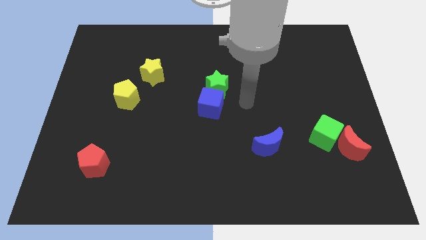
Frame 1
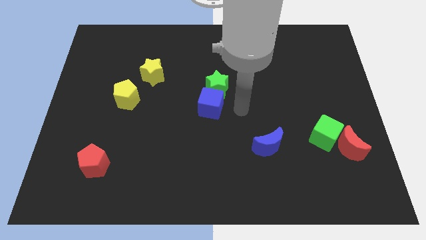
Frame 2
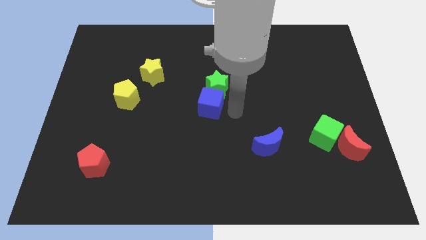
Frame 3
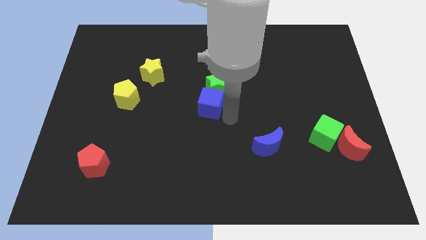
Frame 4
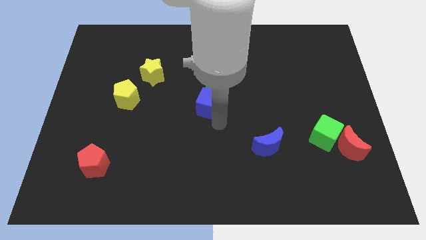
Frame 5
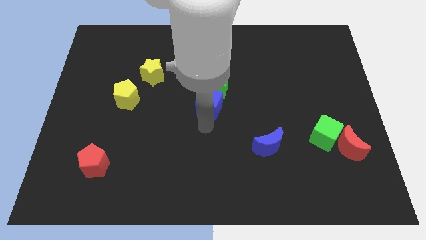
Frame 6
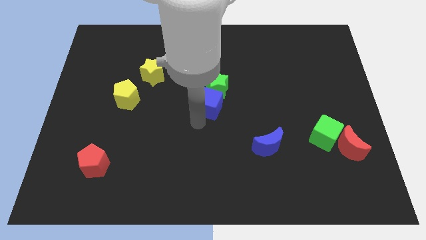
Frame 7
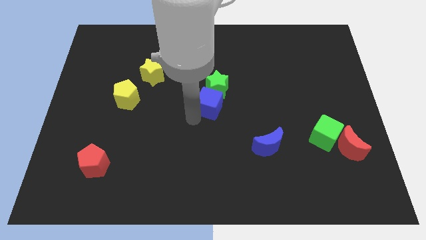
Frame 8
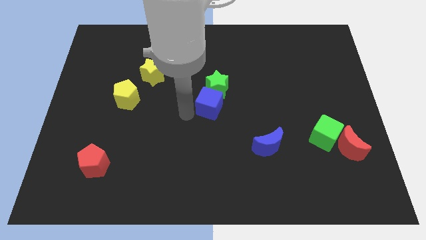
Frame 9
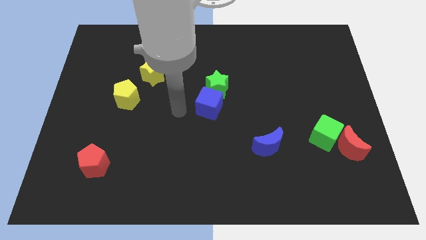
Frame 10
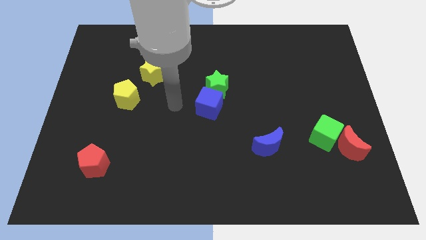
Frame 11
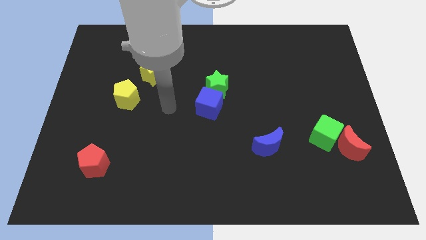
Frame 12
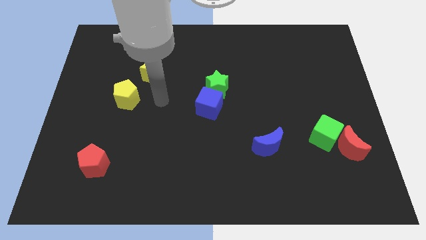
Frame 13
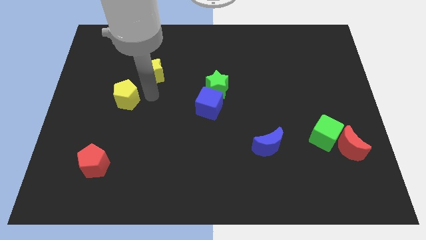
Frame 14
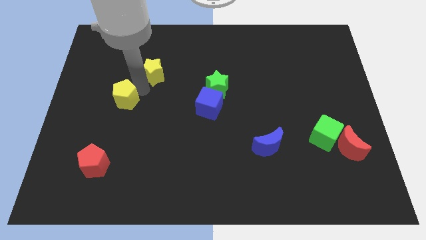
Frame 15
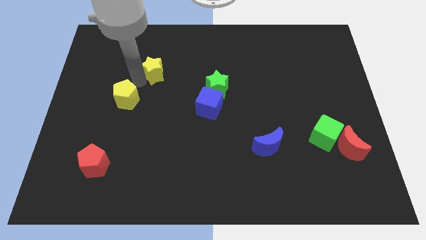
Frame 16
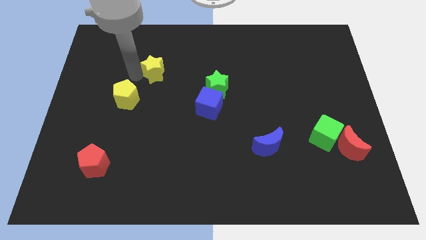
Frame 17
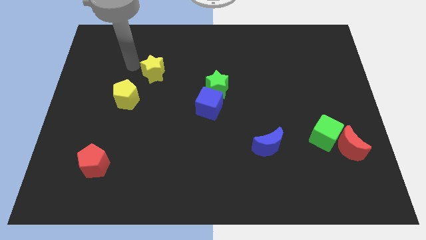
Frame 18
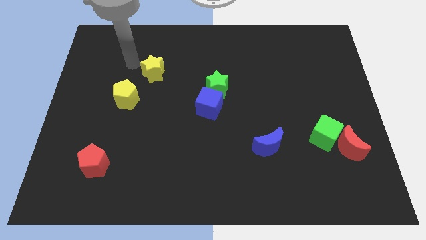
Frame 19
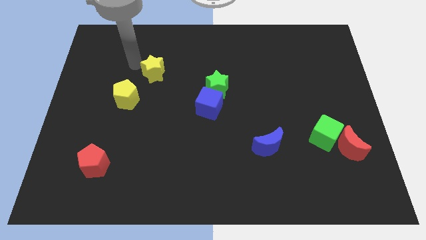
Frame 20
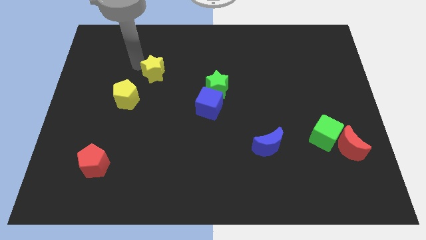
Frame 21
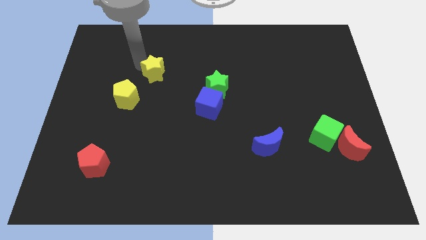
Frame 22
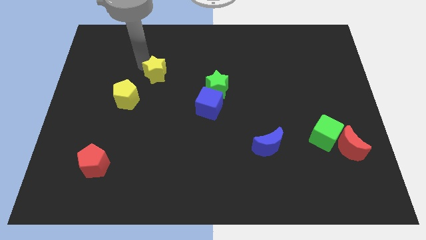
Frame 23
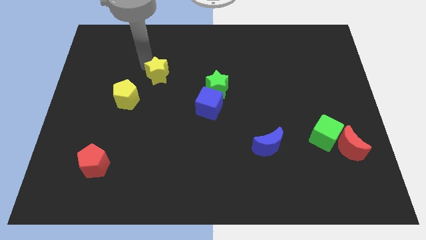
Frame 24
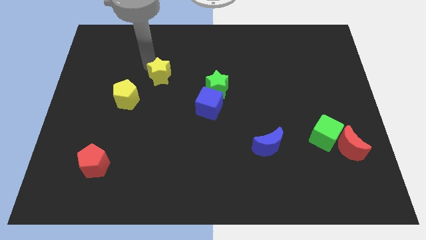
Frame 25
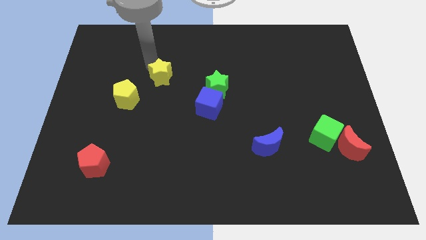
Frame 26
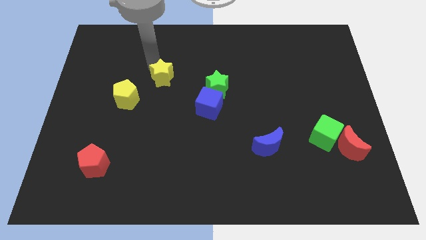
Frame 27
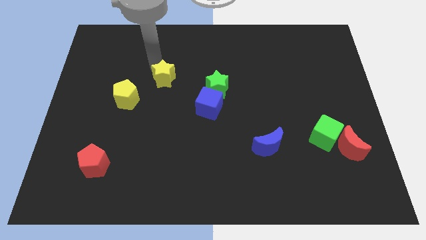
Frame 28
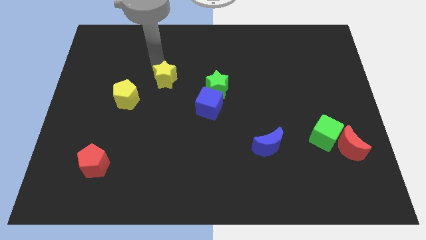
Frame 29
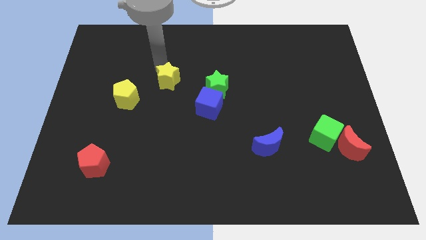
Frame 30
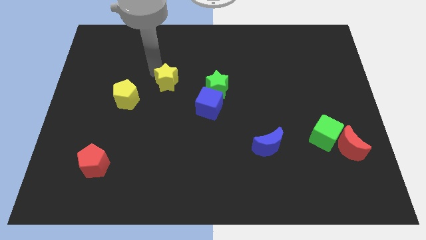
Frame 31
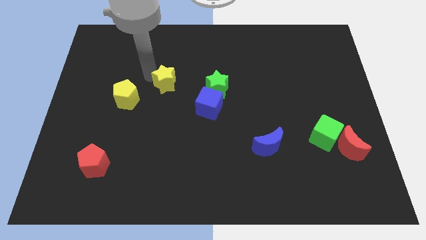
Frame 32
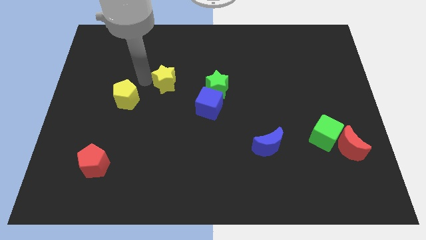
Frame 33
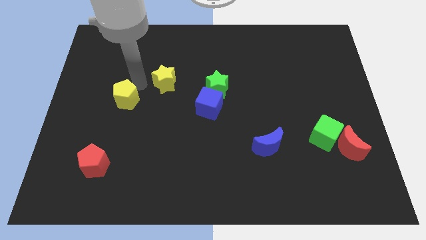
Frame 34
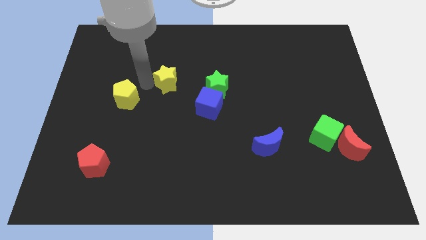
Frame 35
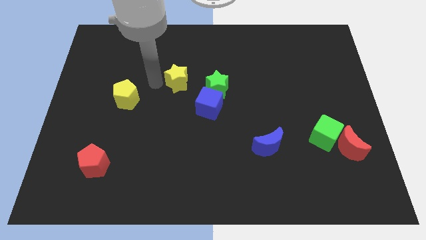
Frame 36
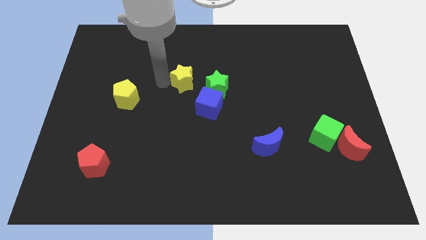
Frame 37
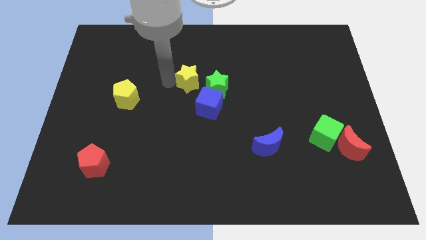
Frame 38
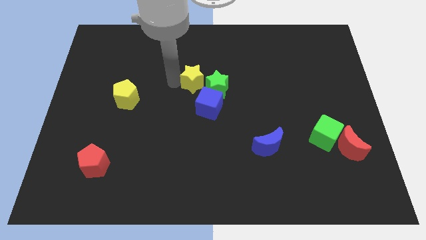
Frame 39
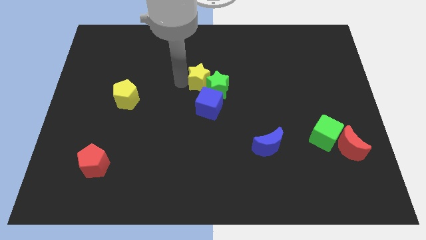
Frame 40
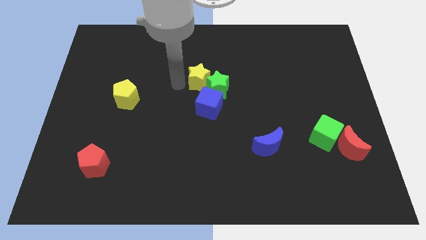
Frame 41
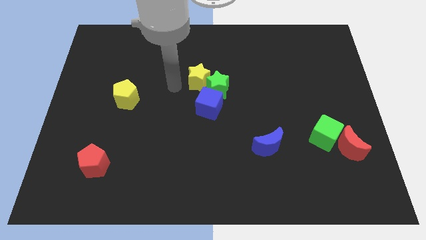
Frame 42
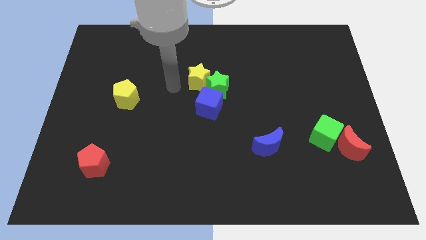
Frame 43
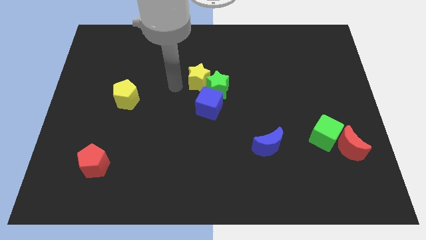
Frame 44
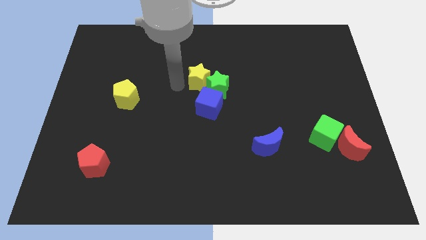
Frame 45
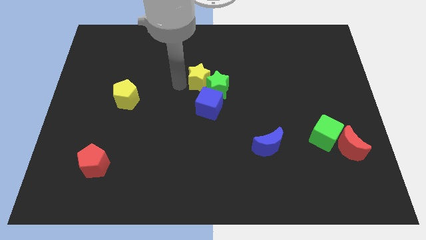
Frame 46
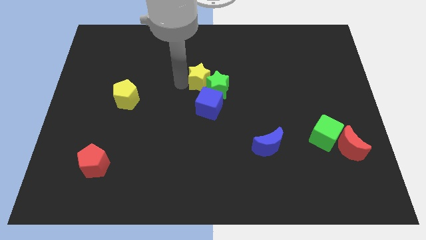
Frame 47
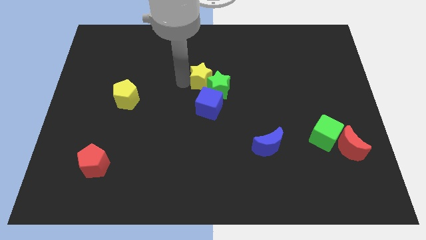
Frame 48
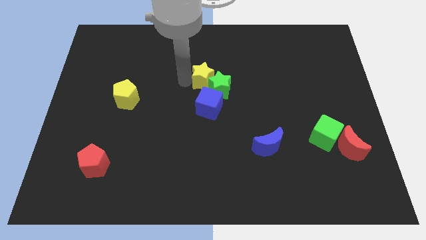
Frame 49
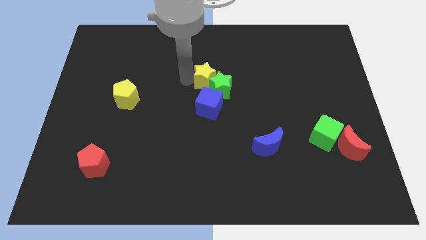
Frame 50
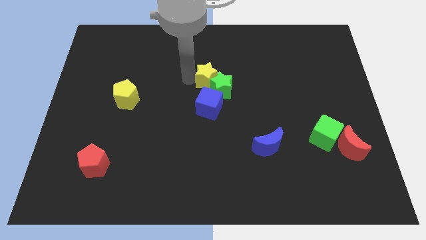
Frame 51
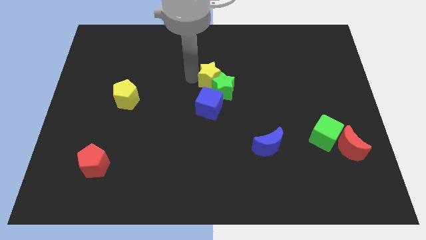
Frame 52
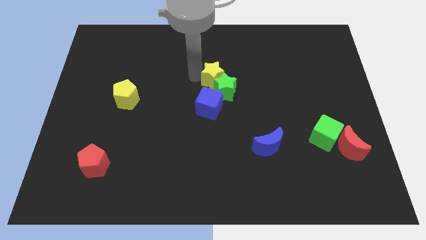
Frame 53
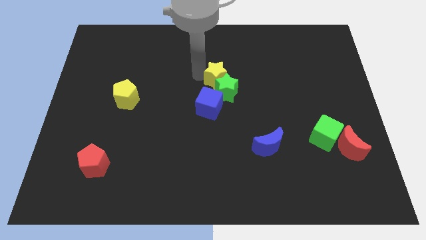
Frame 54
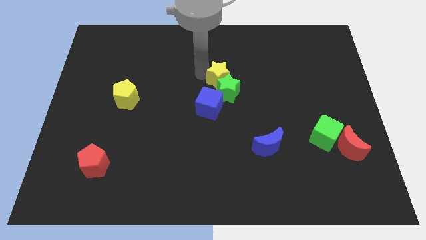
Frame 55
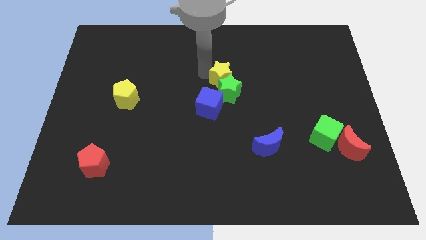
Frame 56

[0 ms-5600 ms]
put the yellow star to the top right of the green star

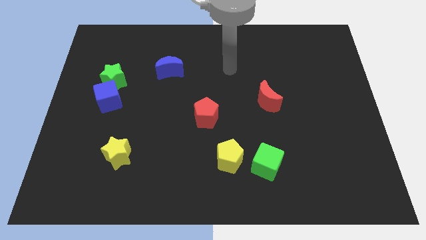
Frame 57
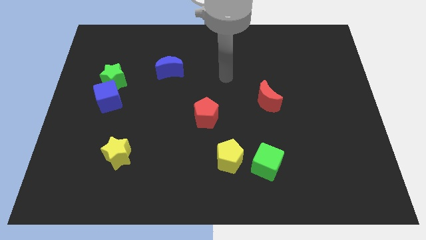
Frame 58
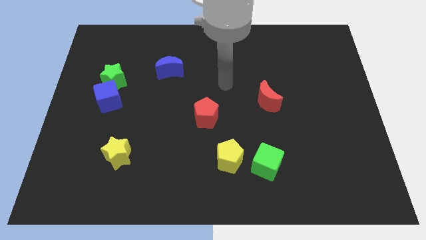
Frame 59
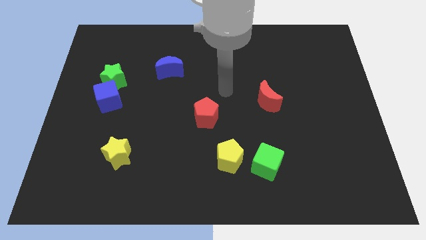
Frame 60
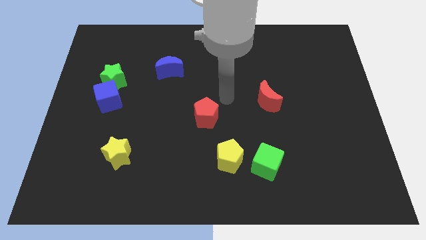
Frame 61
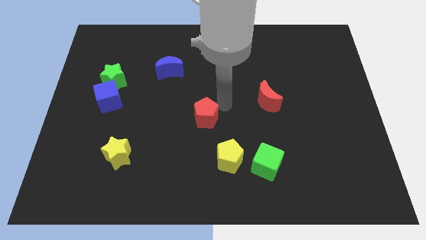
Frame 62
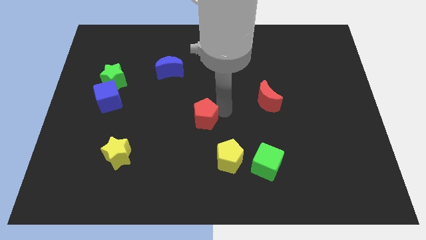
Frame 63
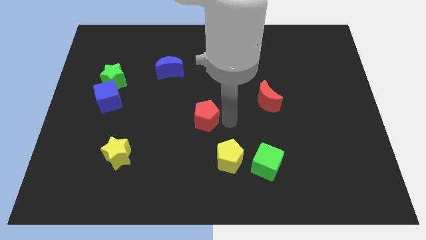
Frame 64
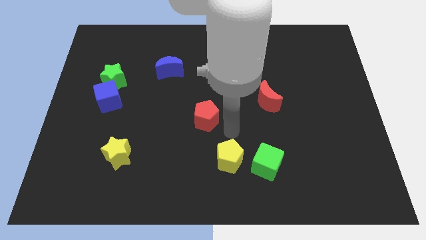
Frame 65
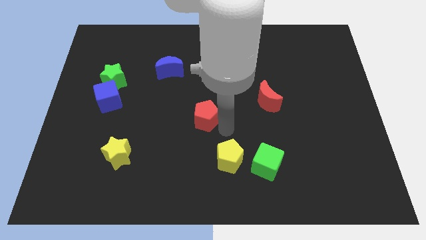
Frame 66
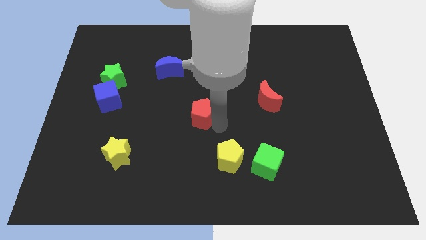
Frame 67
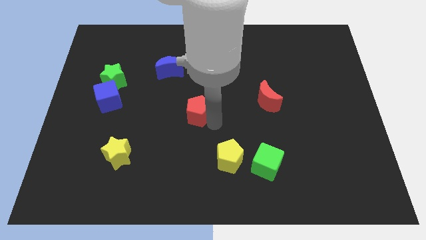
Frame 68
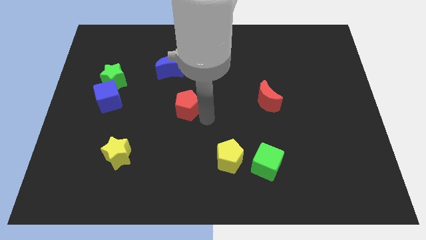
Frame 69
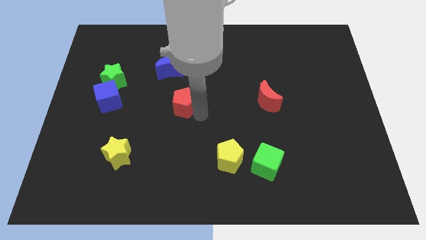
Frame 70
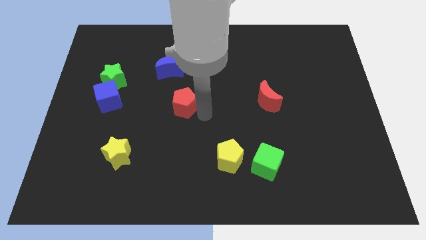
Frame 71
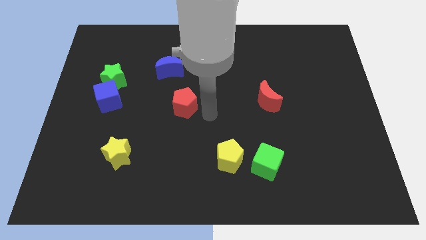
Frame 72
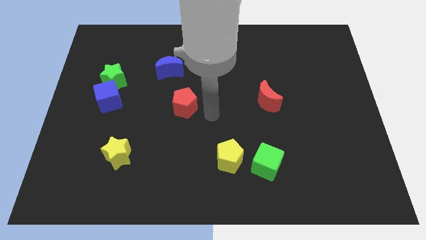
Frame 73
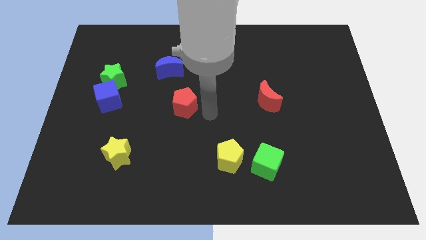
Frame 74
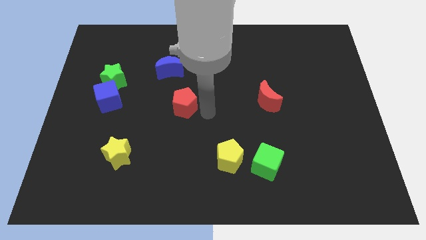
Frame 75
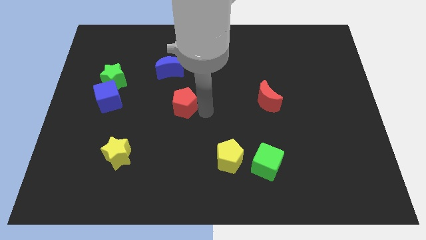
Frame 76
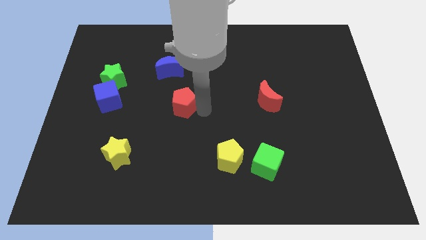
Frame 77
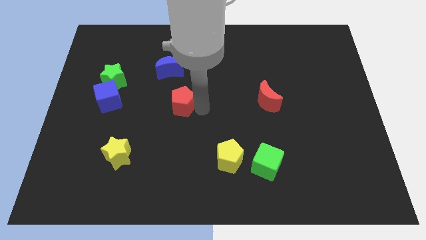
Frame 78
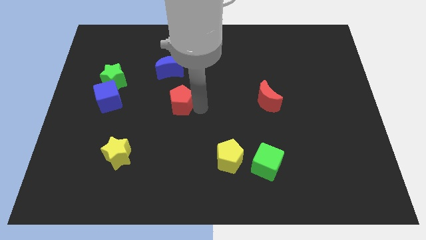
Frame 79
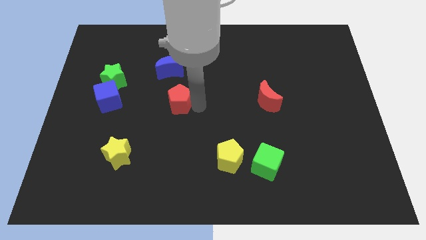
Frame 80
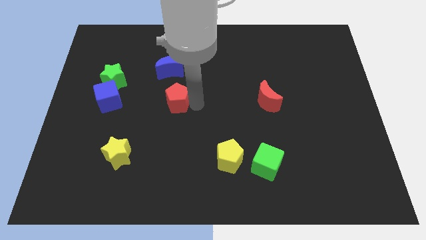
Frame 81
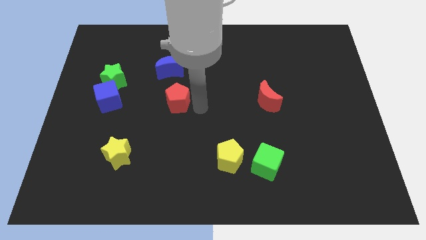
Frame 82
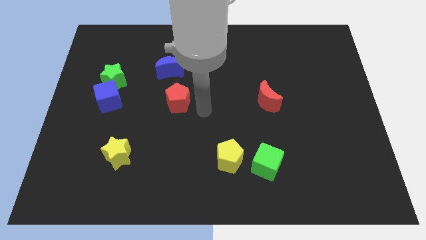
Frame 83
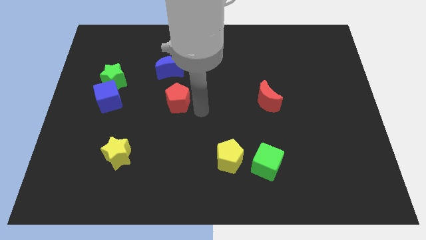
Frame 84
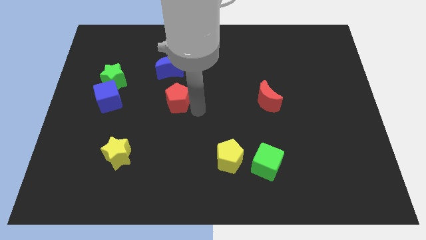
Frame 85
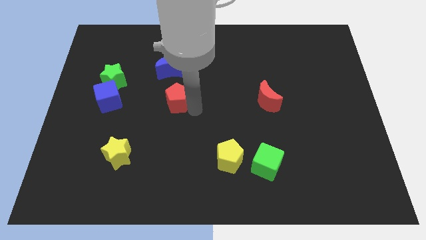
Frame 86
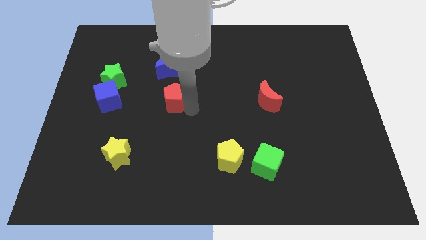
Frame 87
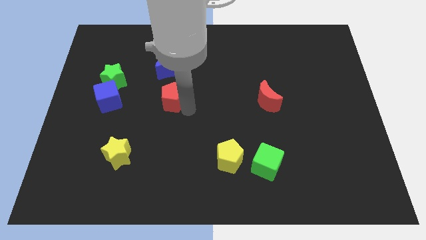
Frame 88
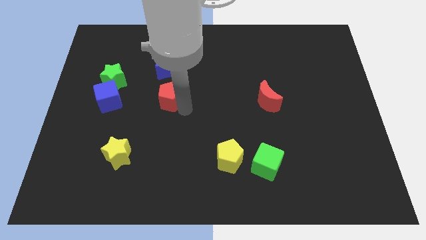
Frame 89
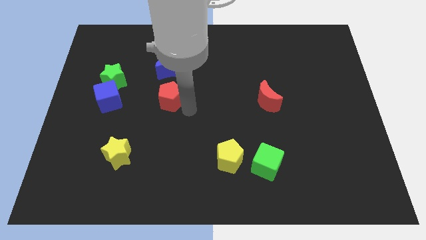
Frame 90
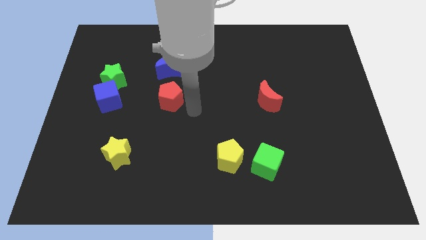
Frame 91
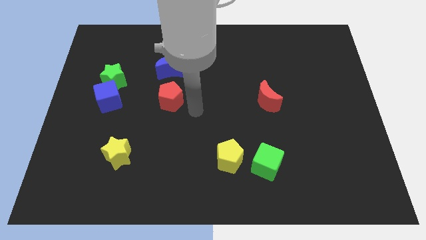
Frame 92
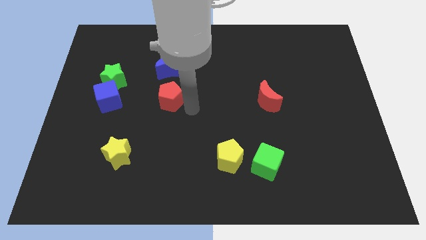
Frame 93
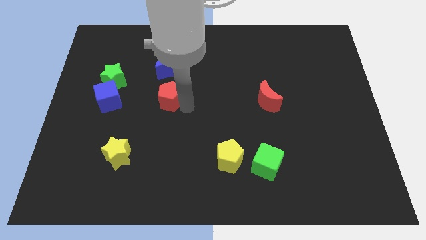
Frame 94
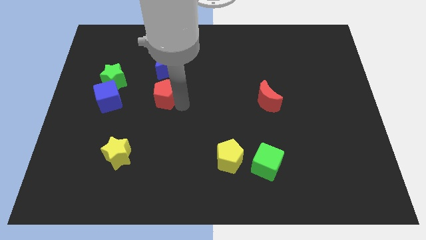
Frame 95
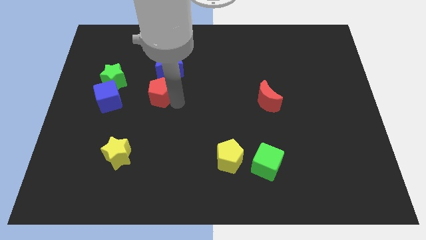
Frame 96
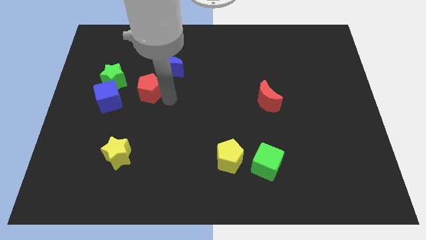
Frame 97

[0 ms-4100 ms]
move the red pentagon to the top right of the blue cube
